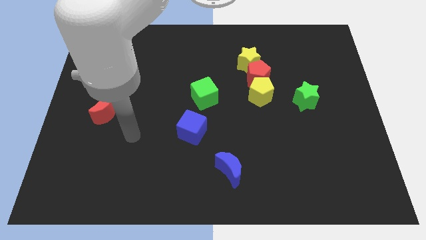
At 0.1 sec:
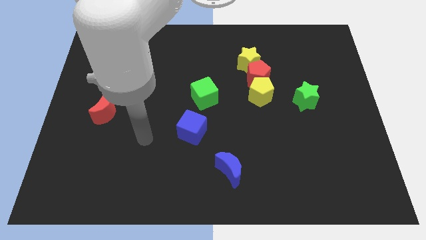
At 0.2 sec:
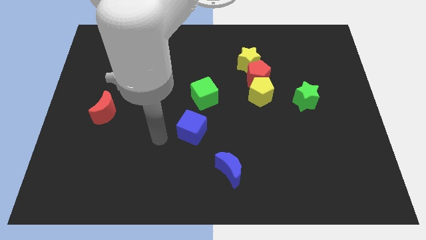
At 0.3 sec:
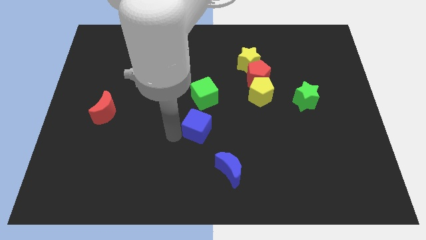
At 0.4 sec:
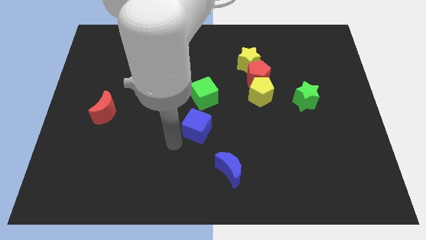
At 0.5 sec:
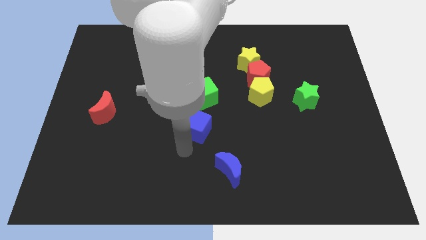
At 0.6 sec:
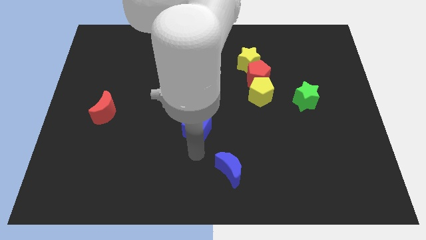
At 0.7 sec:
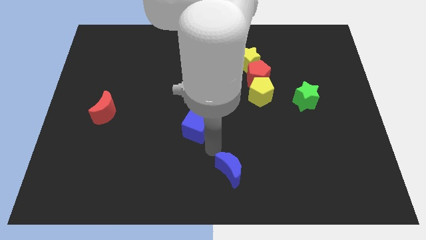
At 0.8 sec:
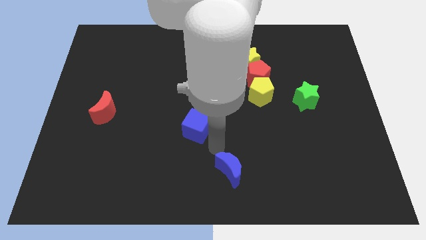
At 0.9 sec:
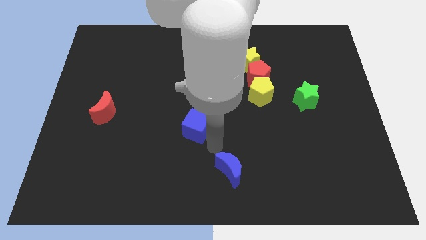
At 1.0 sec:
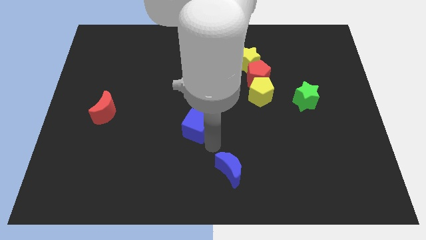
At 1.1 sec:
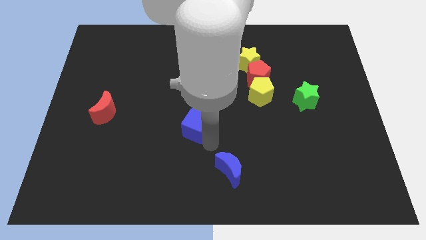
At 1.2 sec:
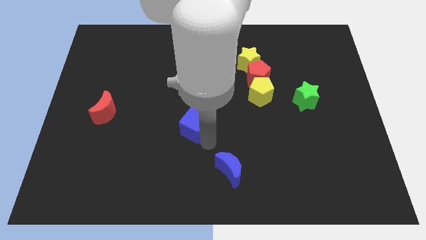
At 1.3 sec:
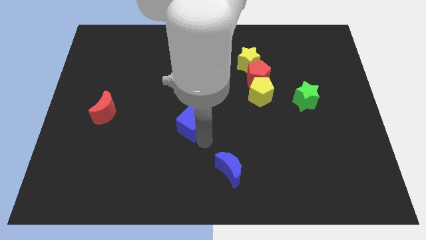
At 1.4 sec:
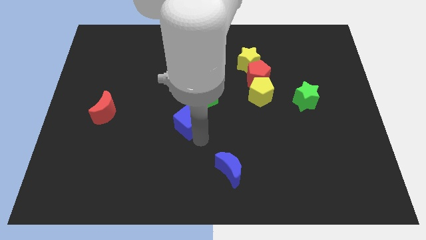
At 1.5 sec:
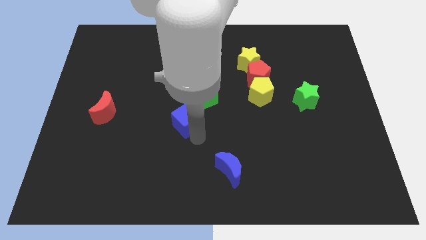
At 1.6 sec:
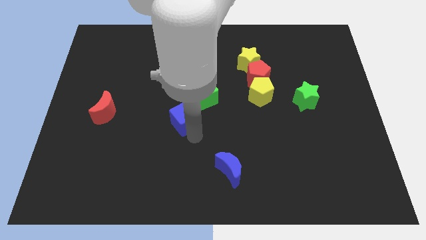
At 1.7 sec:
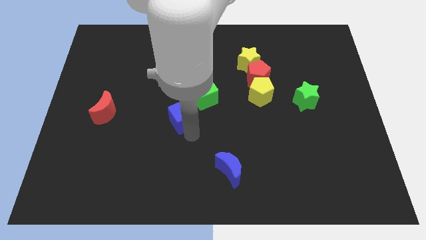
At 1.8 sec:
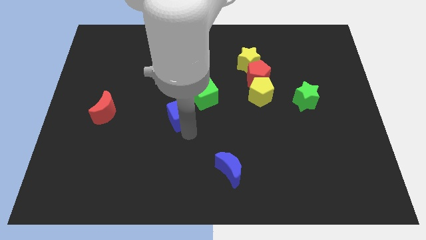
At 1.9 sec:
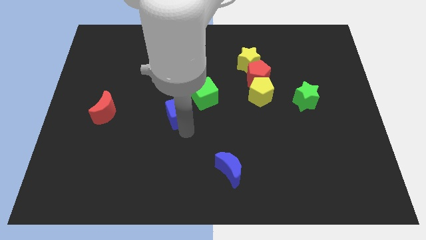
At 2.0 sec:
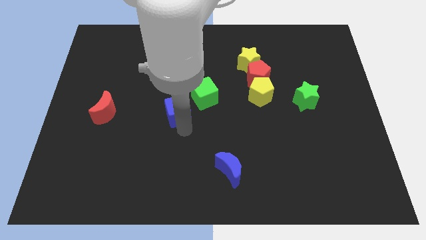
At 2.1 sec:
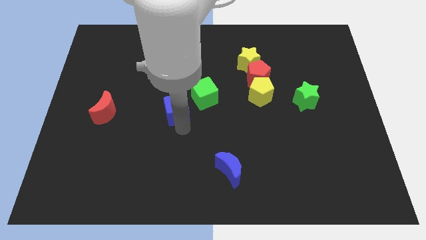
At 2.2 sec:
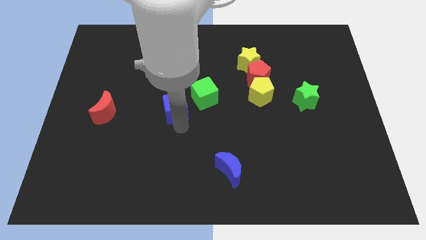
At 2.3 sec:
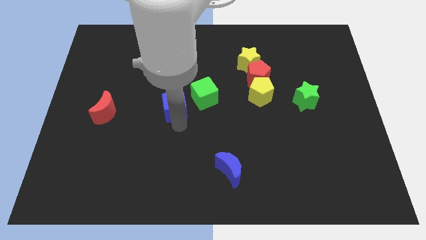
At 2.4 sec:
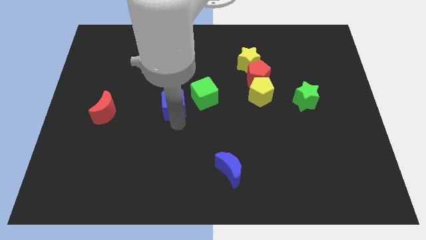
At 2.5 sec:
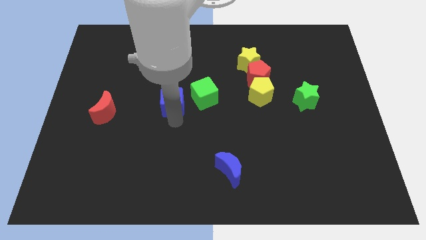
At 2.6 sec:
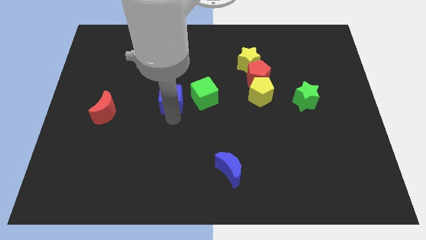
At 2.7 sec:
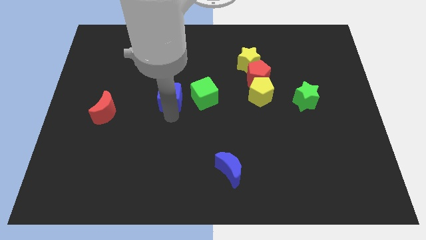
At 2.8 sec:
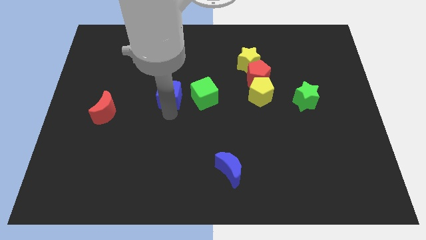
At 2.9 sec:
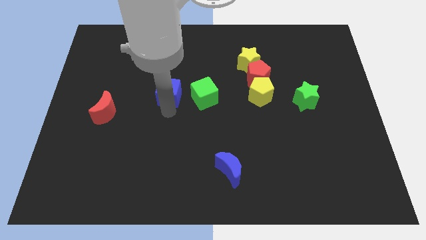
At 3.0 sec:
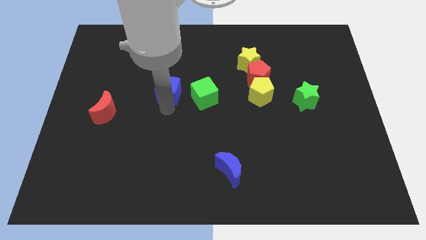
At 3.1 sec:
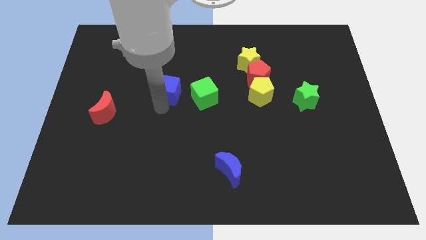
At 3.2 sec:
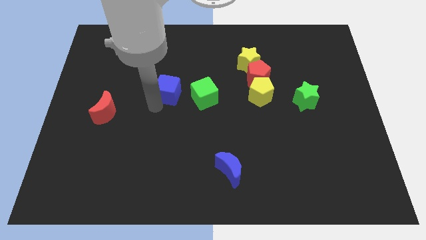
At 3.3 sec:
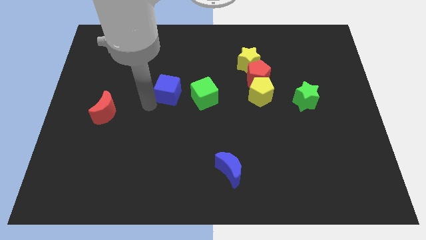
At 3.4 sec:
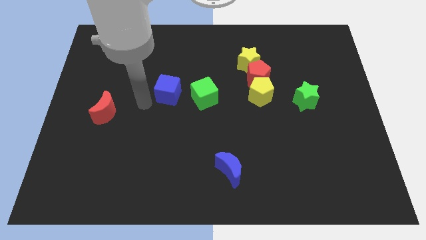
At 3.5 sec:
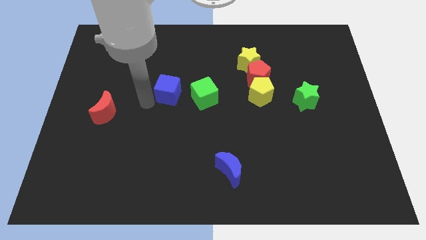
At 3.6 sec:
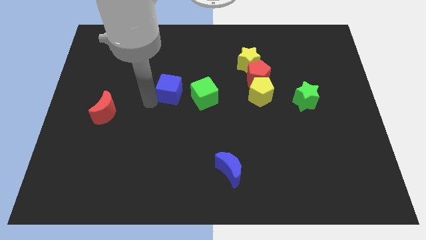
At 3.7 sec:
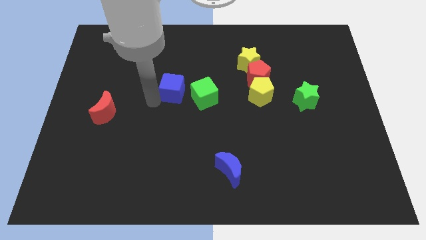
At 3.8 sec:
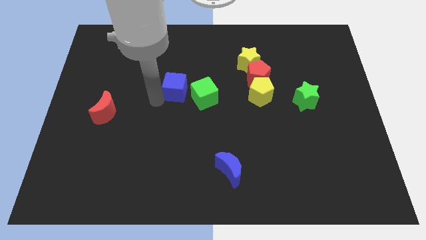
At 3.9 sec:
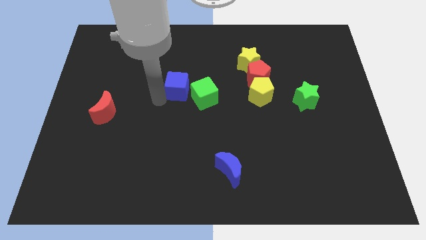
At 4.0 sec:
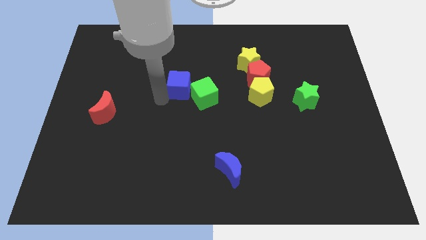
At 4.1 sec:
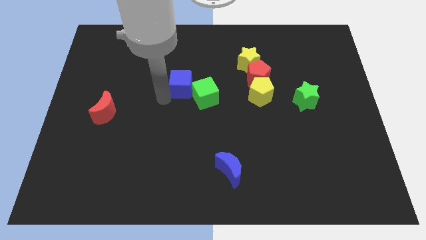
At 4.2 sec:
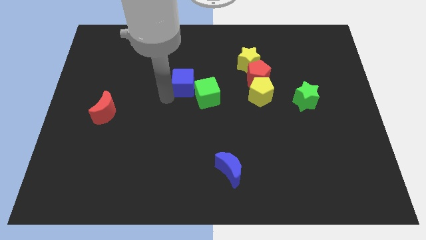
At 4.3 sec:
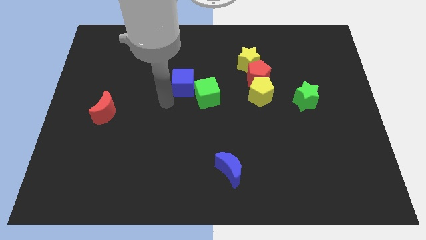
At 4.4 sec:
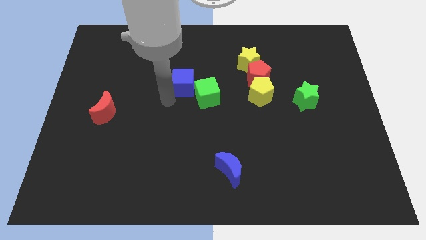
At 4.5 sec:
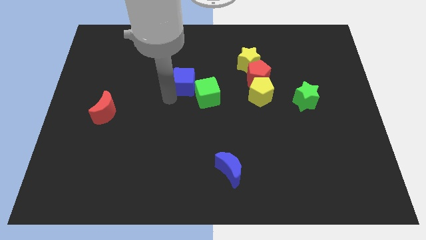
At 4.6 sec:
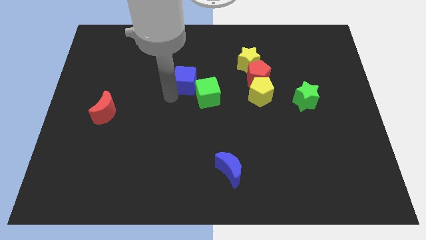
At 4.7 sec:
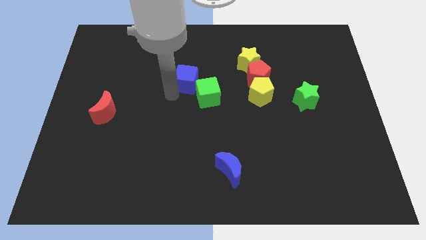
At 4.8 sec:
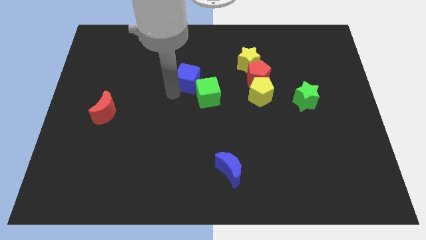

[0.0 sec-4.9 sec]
push the blue cube to the top of the green cube

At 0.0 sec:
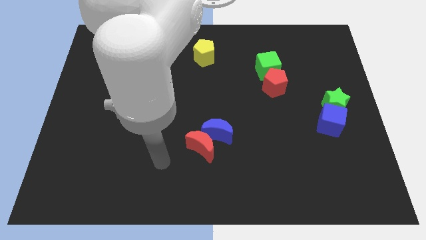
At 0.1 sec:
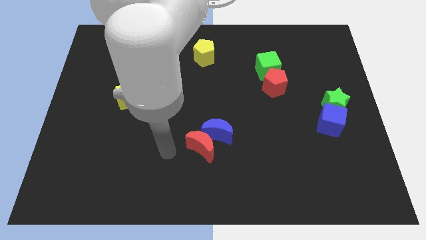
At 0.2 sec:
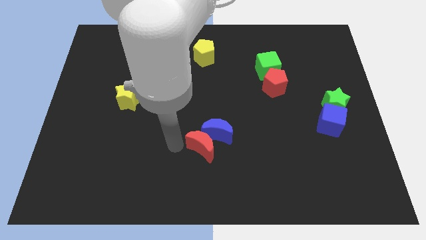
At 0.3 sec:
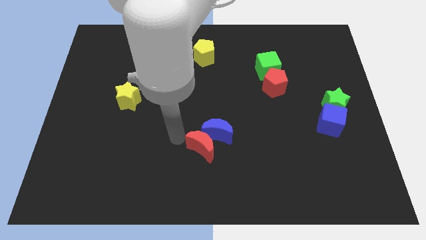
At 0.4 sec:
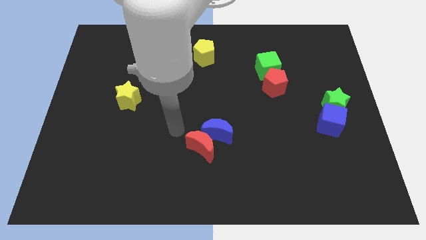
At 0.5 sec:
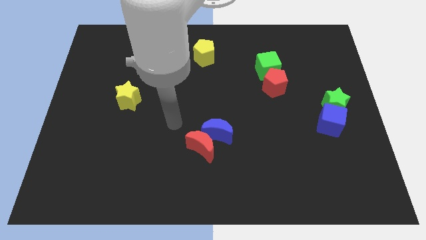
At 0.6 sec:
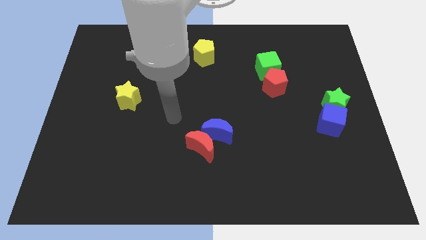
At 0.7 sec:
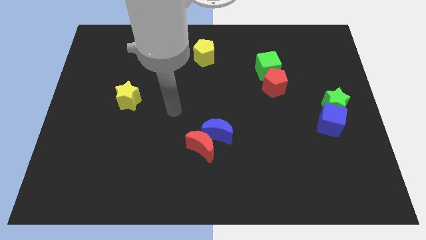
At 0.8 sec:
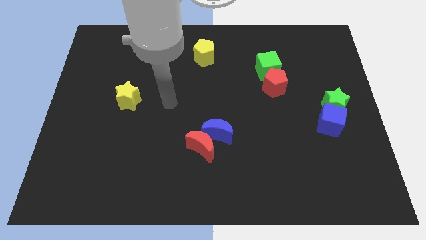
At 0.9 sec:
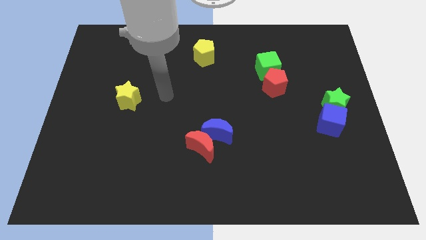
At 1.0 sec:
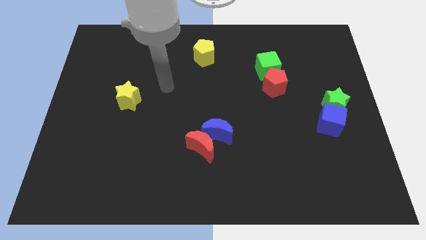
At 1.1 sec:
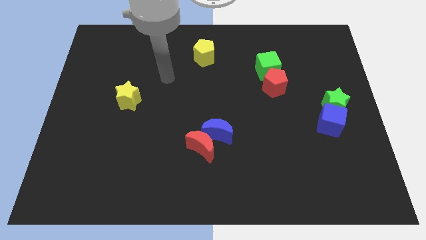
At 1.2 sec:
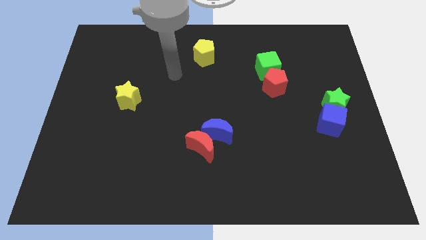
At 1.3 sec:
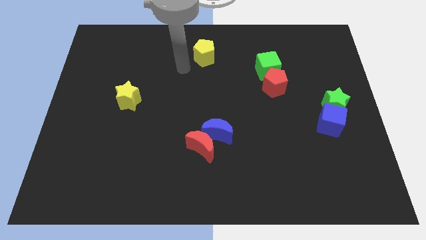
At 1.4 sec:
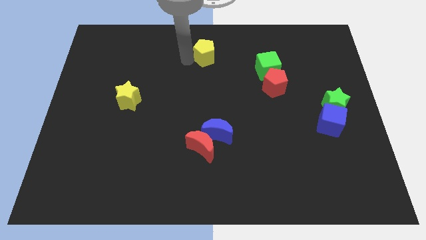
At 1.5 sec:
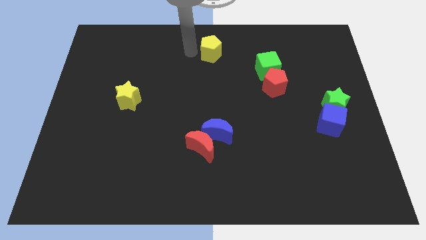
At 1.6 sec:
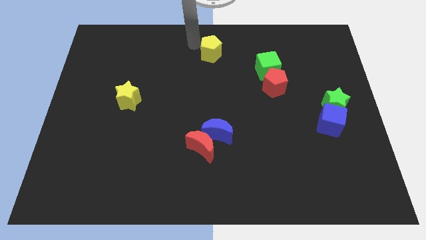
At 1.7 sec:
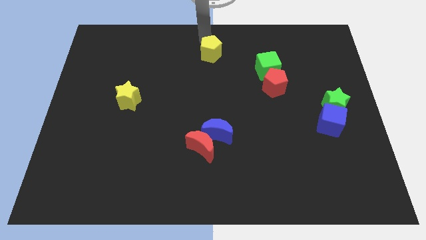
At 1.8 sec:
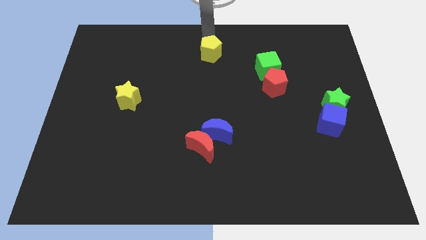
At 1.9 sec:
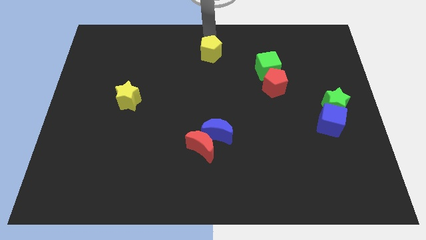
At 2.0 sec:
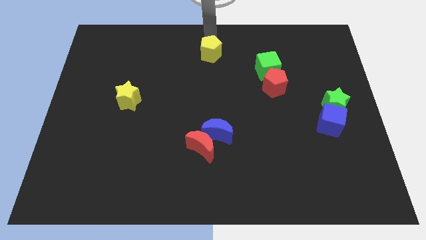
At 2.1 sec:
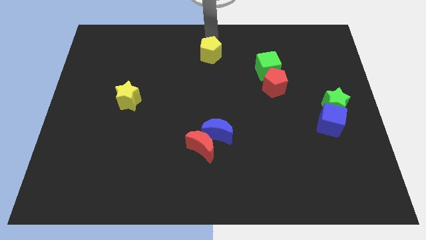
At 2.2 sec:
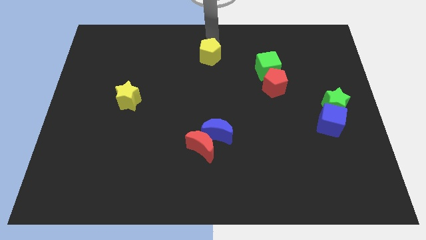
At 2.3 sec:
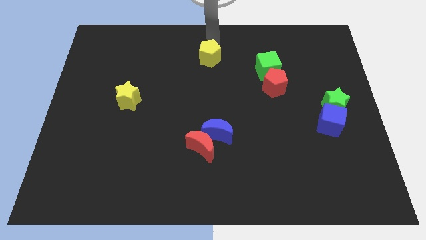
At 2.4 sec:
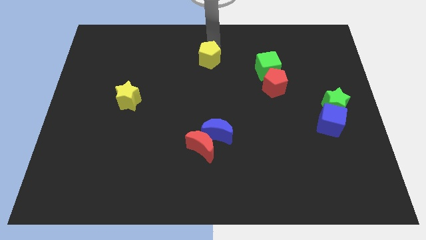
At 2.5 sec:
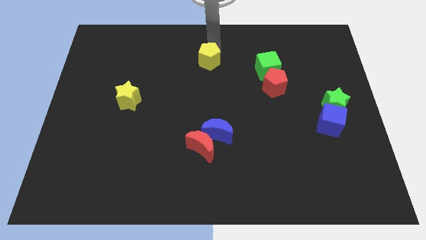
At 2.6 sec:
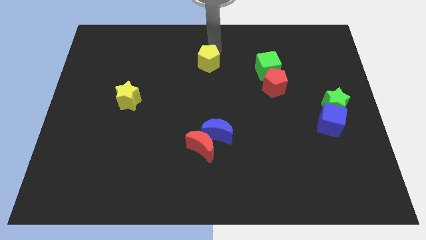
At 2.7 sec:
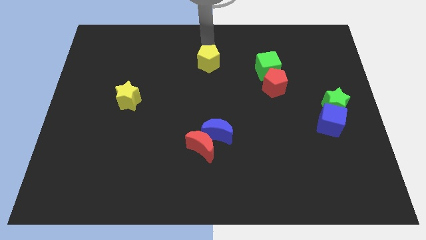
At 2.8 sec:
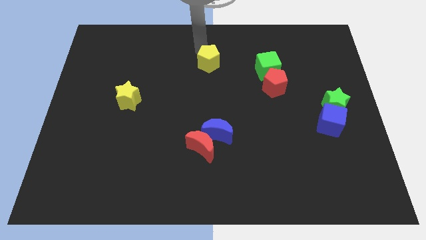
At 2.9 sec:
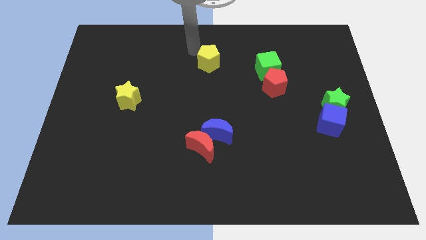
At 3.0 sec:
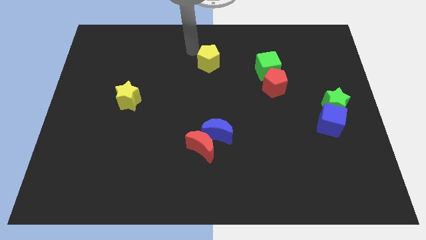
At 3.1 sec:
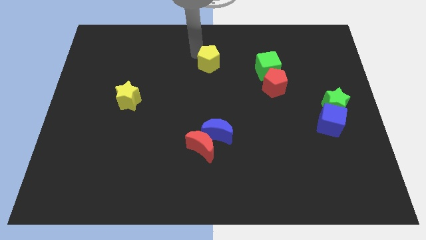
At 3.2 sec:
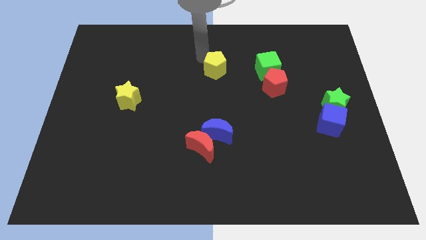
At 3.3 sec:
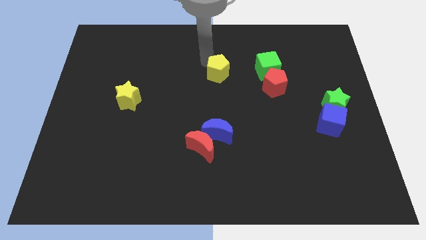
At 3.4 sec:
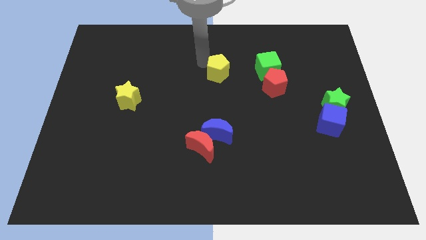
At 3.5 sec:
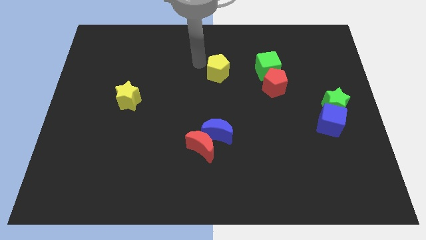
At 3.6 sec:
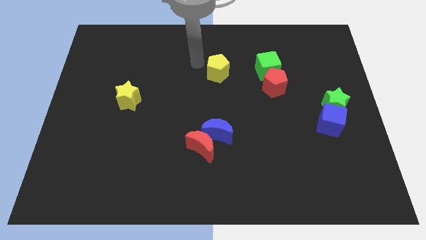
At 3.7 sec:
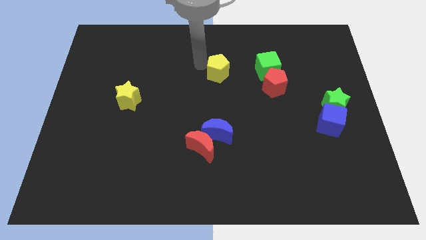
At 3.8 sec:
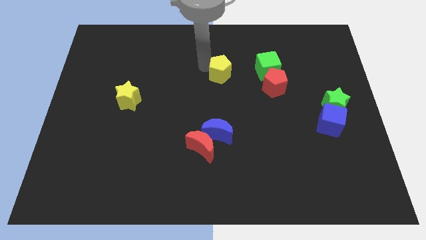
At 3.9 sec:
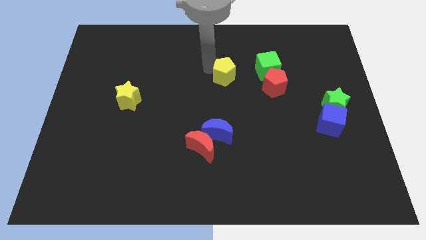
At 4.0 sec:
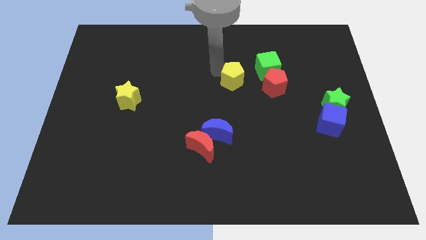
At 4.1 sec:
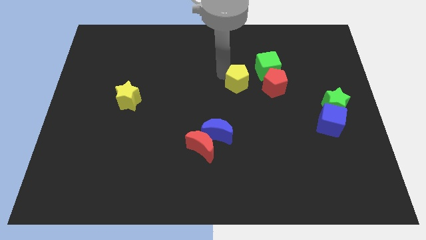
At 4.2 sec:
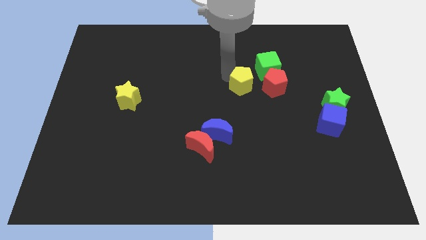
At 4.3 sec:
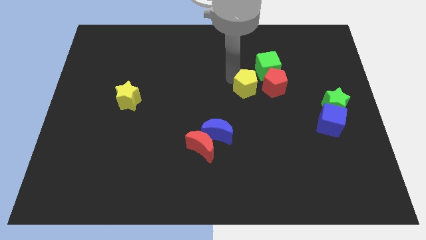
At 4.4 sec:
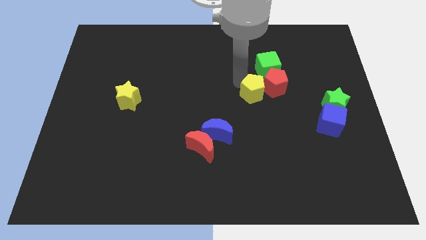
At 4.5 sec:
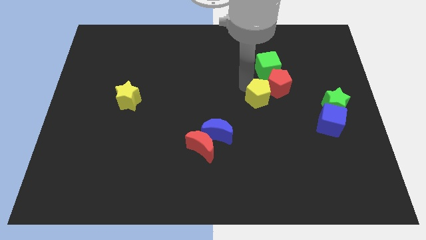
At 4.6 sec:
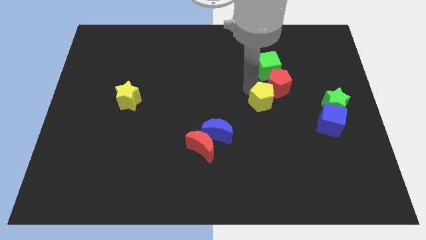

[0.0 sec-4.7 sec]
put the yellow pentagon to the bottom side of the red pentagon
